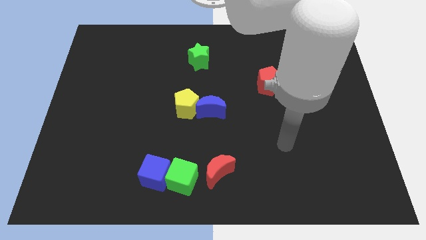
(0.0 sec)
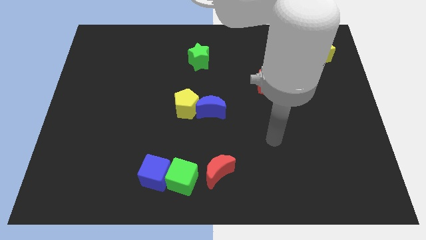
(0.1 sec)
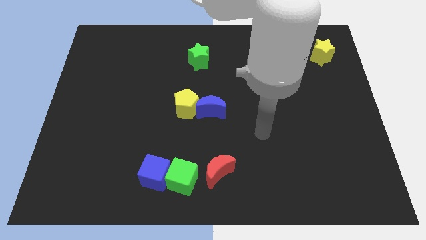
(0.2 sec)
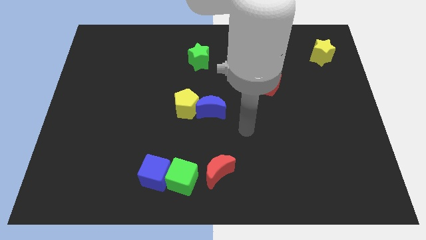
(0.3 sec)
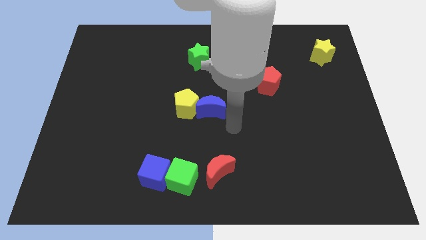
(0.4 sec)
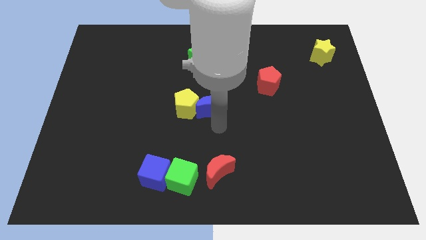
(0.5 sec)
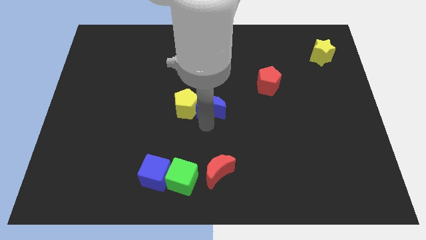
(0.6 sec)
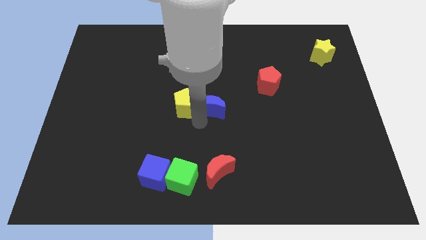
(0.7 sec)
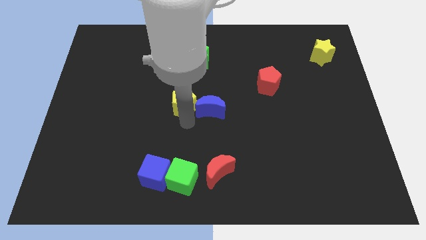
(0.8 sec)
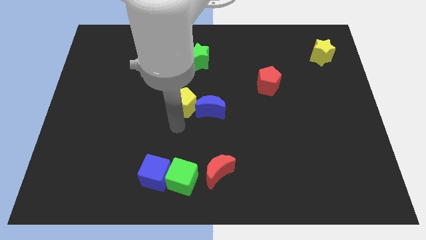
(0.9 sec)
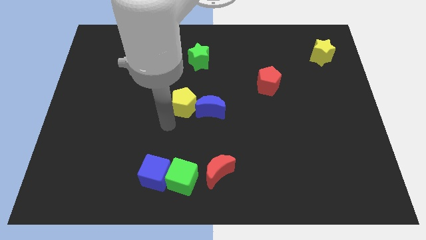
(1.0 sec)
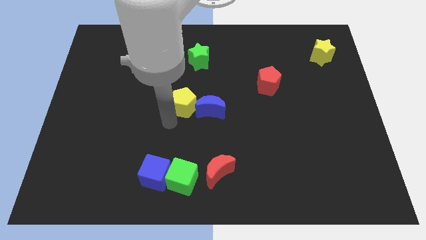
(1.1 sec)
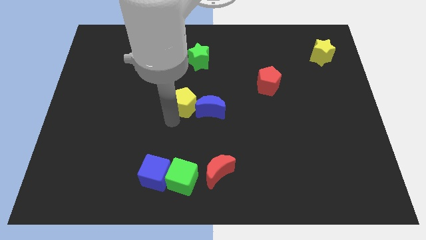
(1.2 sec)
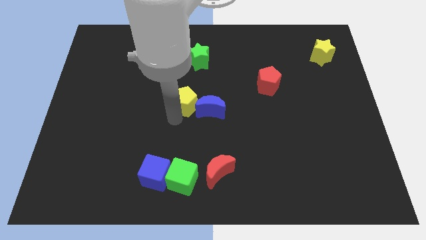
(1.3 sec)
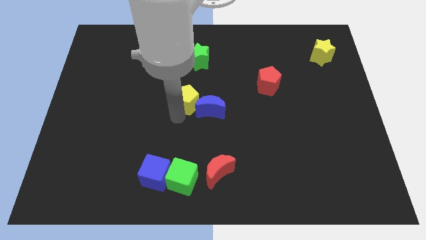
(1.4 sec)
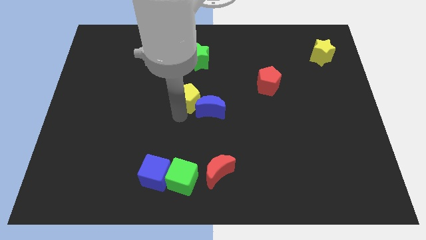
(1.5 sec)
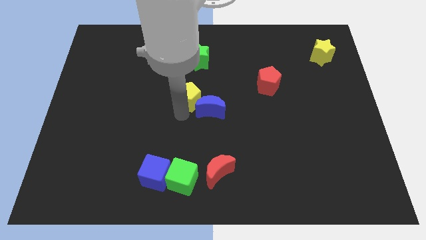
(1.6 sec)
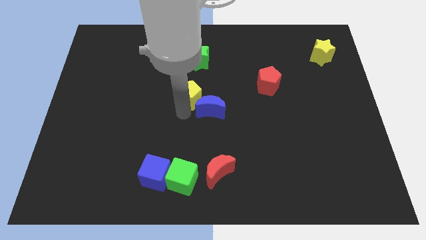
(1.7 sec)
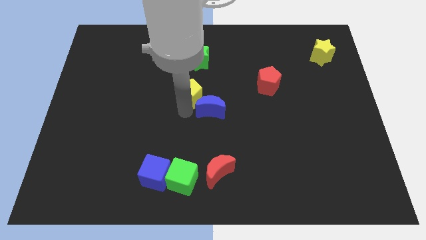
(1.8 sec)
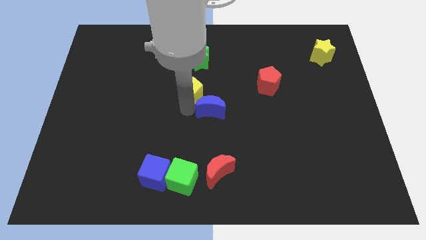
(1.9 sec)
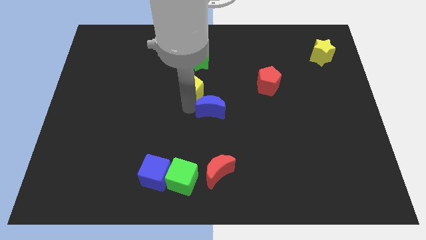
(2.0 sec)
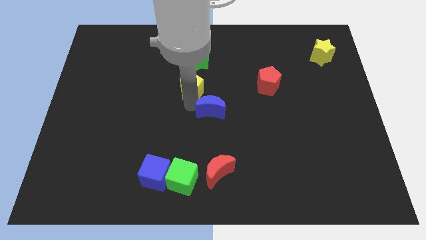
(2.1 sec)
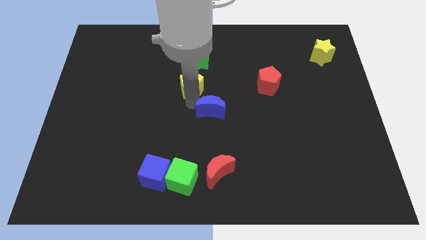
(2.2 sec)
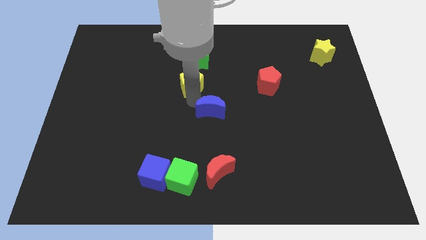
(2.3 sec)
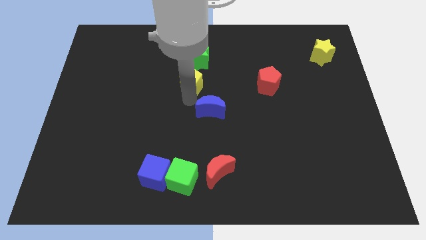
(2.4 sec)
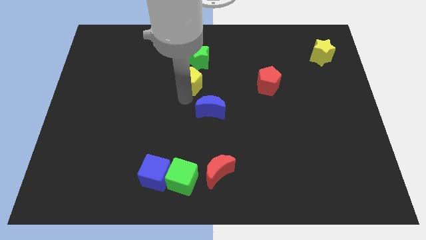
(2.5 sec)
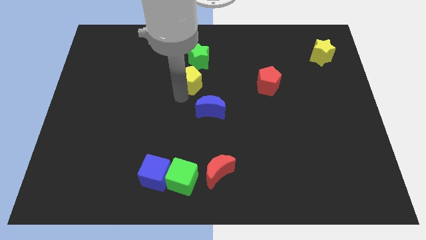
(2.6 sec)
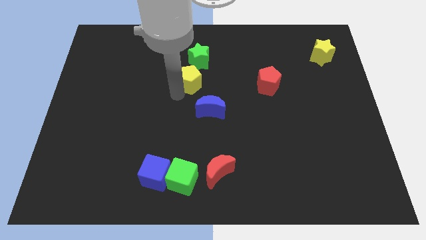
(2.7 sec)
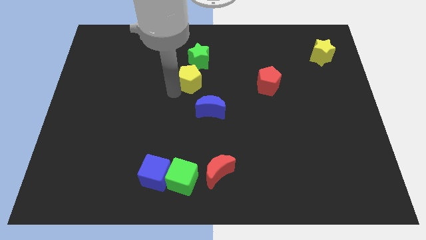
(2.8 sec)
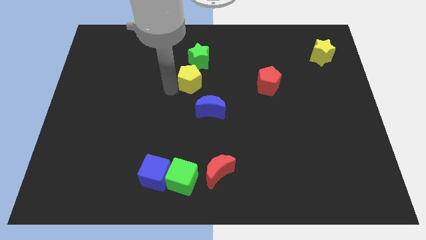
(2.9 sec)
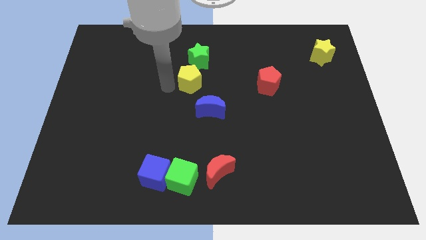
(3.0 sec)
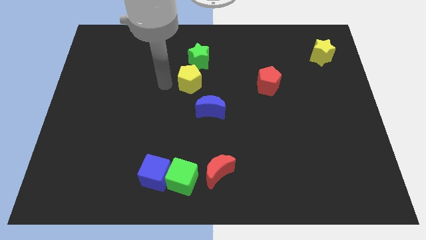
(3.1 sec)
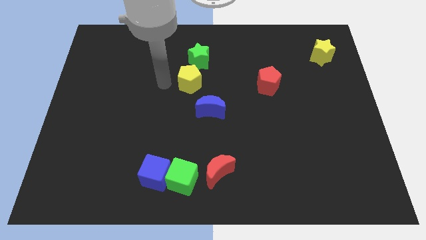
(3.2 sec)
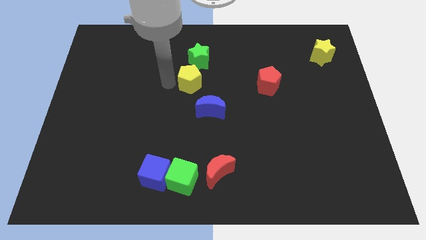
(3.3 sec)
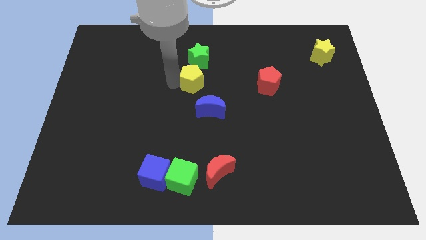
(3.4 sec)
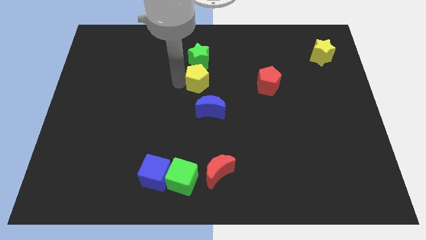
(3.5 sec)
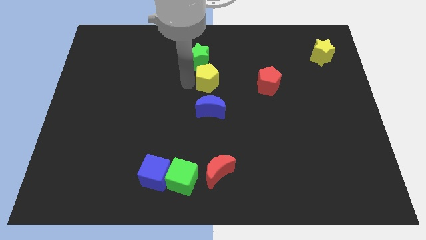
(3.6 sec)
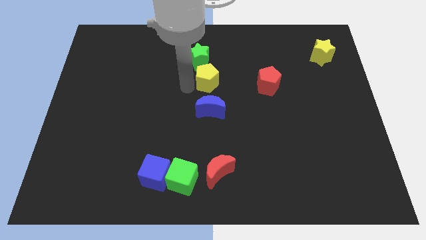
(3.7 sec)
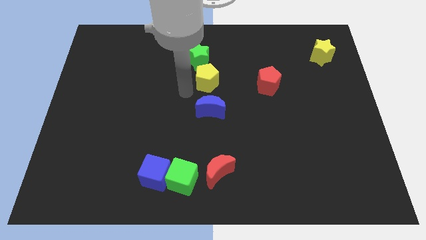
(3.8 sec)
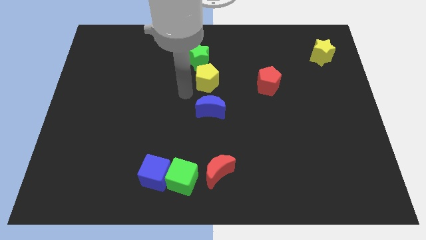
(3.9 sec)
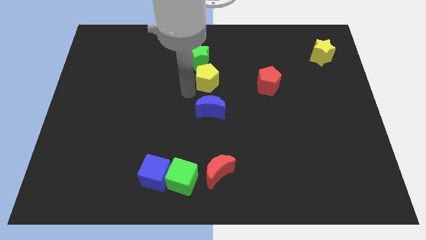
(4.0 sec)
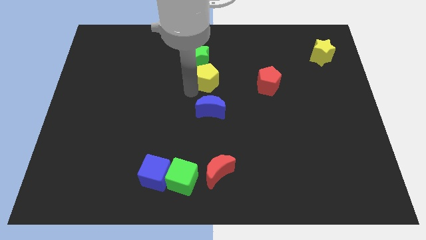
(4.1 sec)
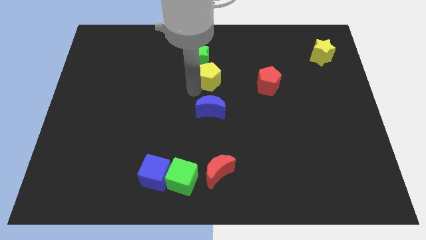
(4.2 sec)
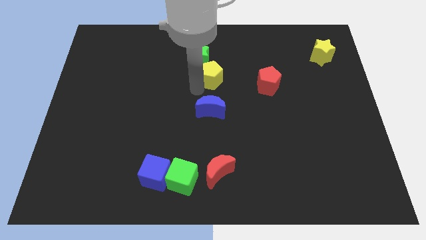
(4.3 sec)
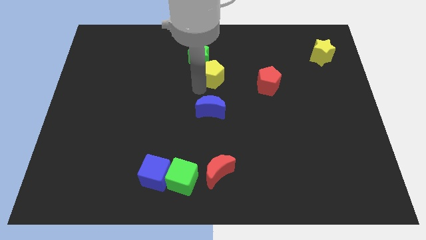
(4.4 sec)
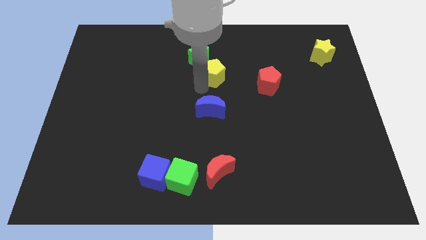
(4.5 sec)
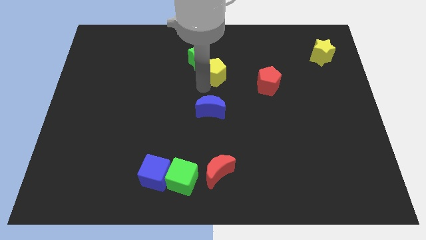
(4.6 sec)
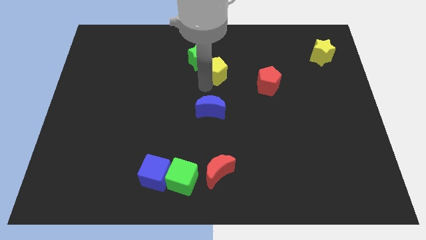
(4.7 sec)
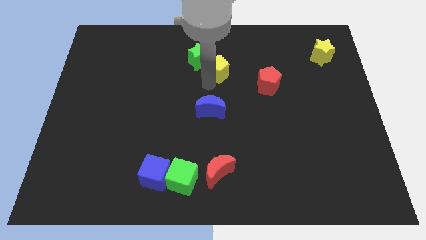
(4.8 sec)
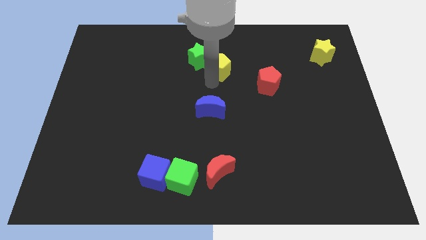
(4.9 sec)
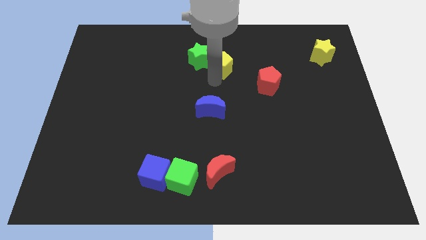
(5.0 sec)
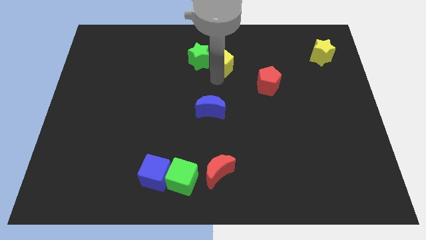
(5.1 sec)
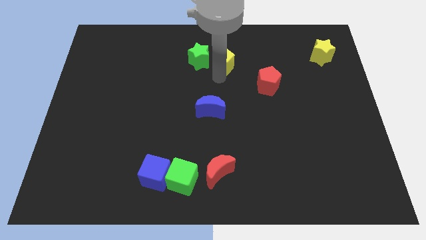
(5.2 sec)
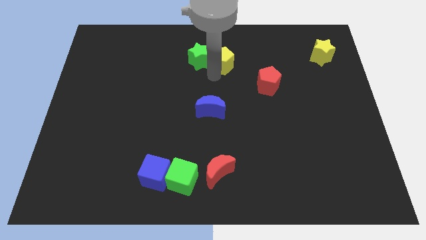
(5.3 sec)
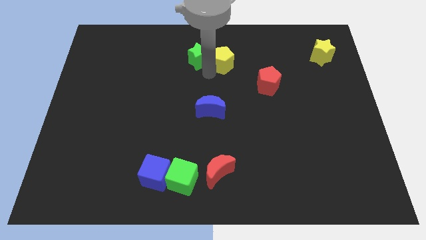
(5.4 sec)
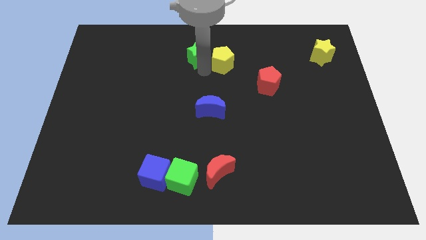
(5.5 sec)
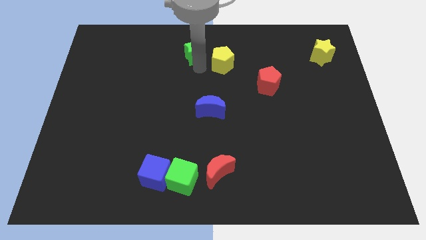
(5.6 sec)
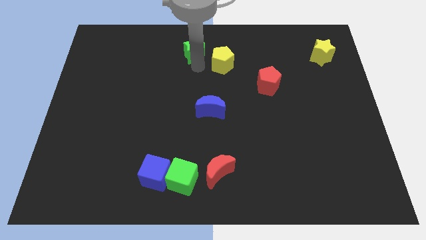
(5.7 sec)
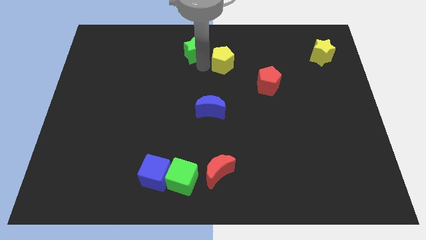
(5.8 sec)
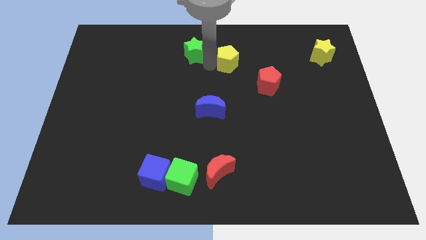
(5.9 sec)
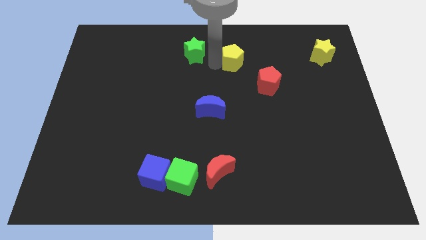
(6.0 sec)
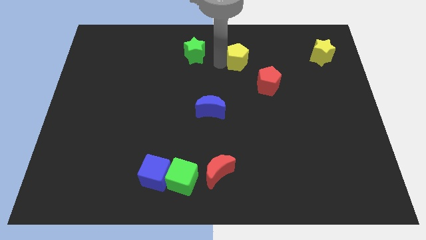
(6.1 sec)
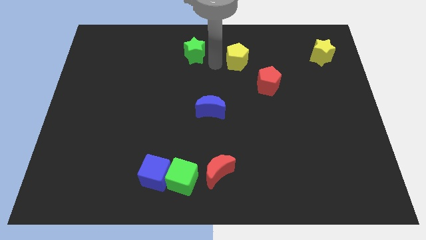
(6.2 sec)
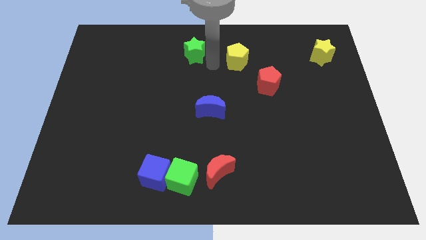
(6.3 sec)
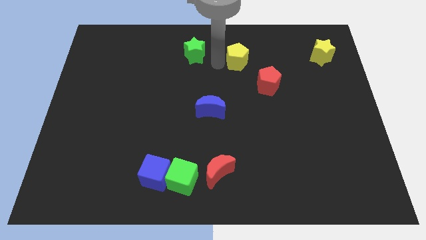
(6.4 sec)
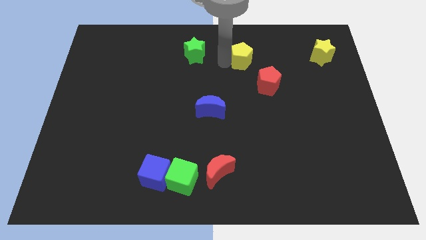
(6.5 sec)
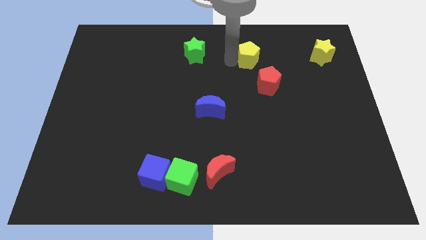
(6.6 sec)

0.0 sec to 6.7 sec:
push the yellow pentagon to the top side of the red pentagon

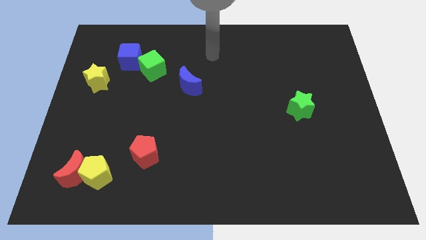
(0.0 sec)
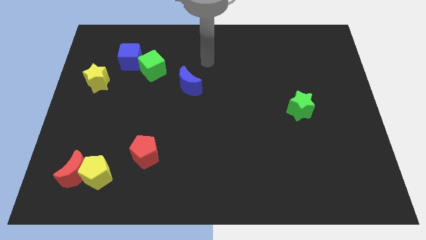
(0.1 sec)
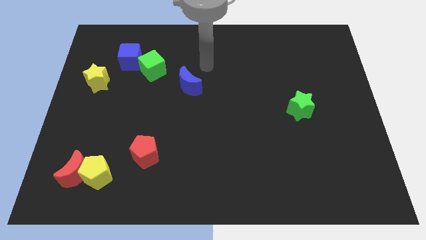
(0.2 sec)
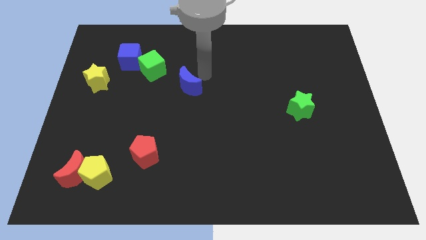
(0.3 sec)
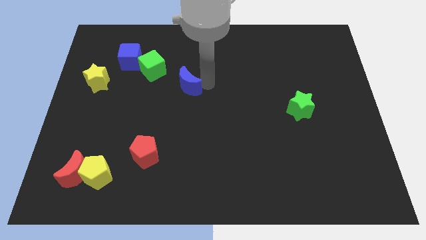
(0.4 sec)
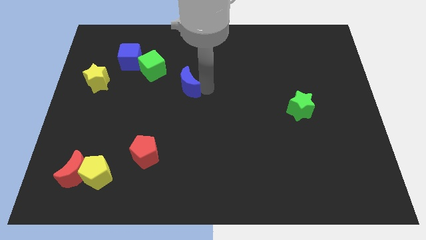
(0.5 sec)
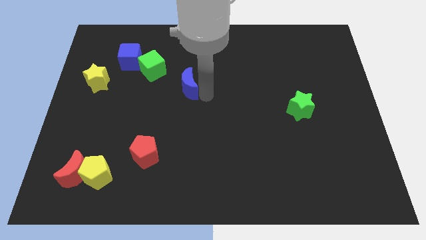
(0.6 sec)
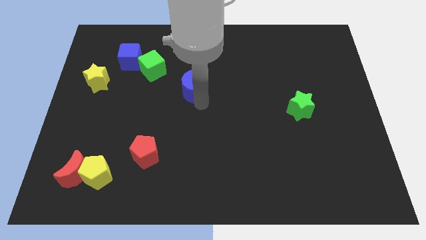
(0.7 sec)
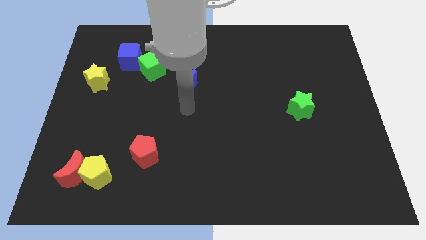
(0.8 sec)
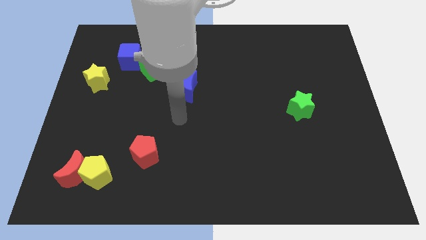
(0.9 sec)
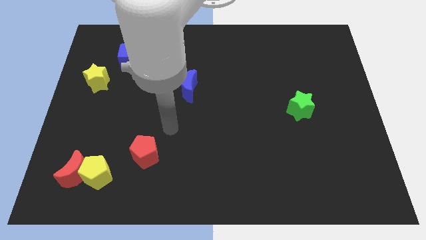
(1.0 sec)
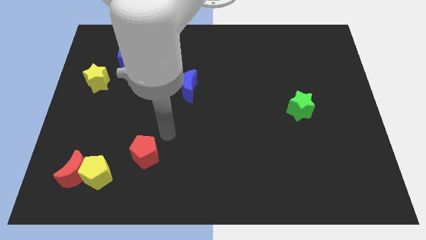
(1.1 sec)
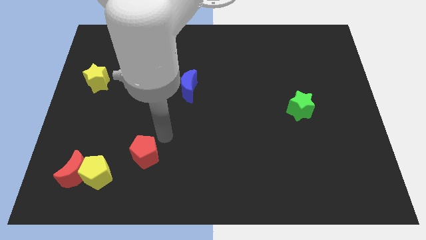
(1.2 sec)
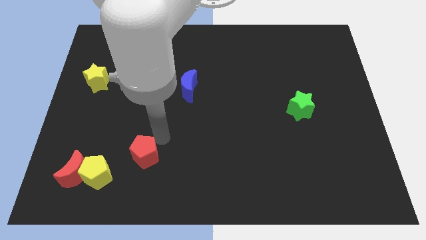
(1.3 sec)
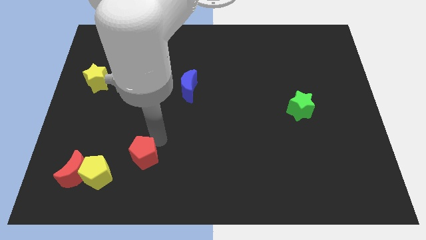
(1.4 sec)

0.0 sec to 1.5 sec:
move the red pentagon to the right of the red moon
